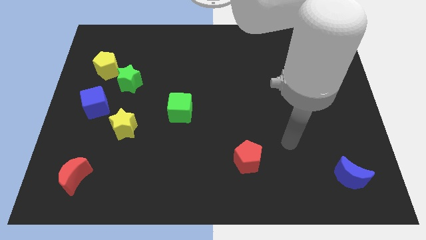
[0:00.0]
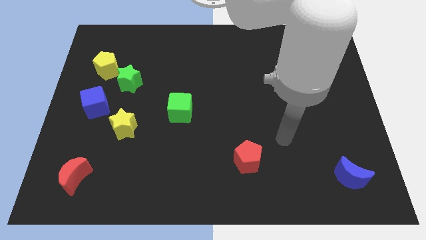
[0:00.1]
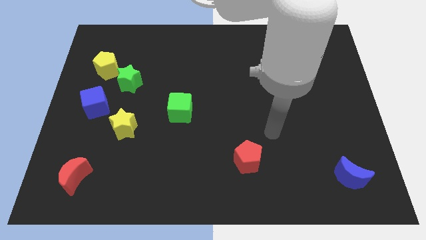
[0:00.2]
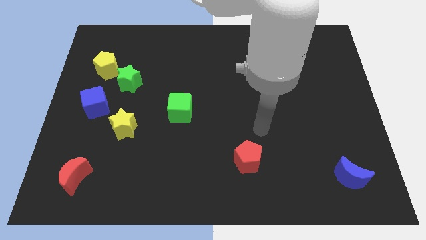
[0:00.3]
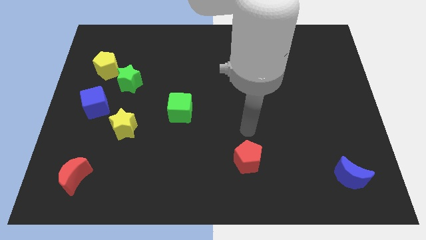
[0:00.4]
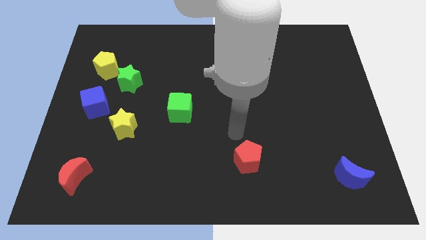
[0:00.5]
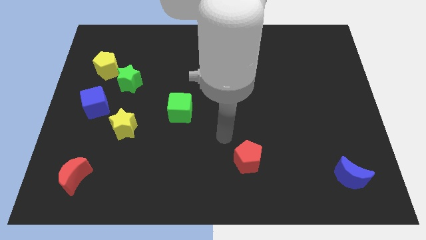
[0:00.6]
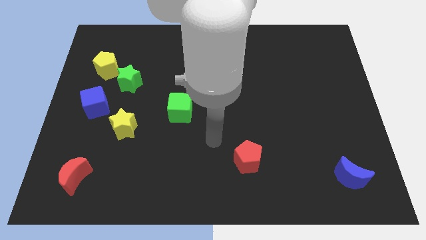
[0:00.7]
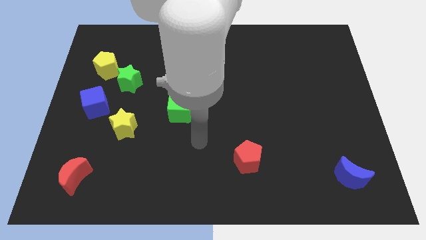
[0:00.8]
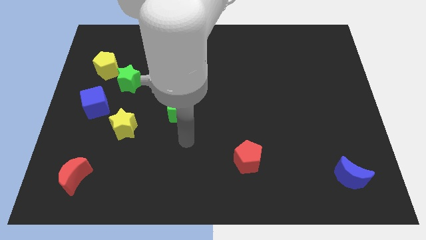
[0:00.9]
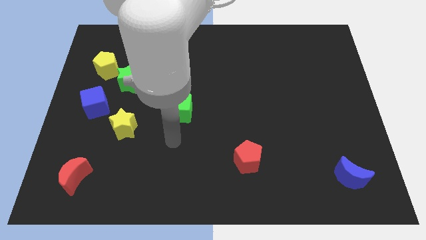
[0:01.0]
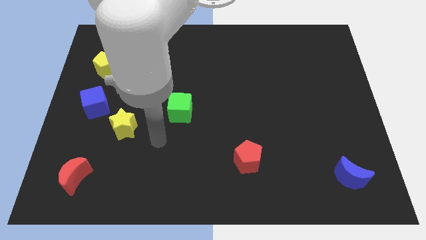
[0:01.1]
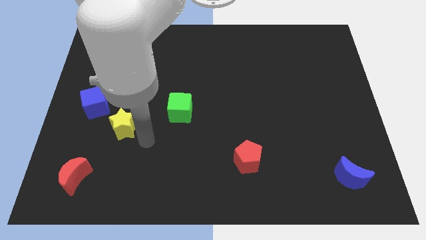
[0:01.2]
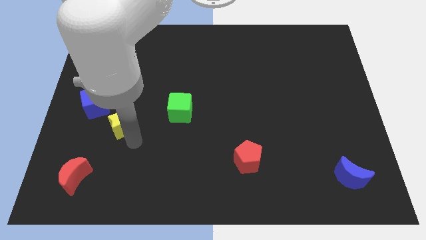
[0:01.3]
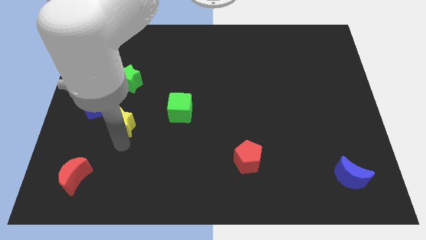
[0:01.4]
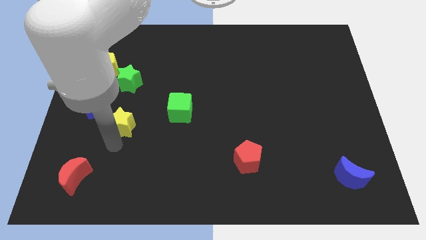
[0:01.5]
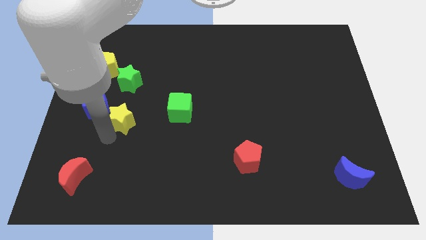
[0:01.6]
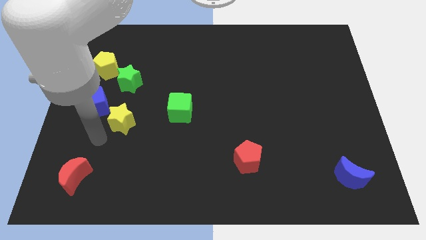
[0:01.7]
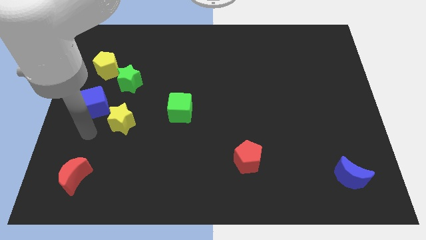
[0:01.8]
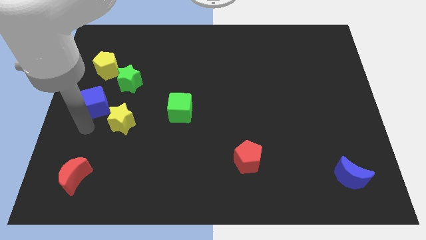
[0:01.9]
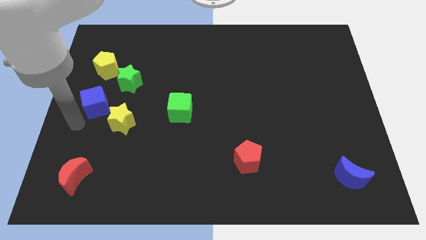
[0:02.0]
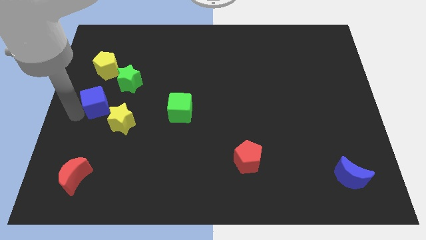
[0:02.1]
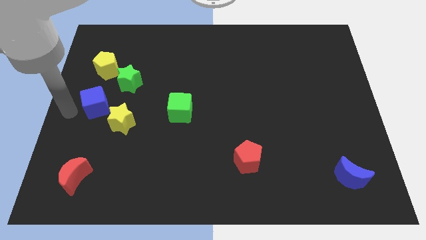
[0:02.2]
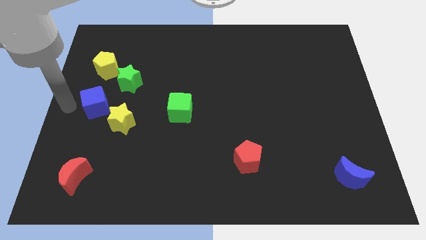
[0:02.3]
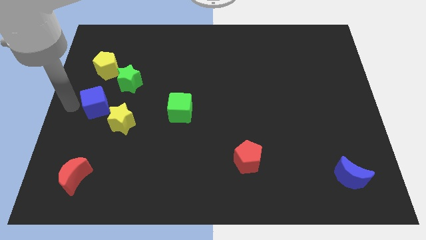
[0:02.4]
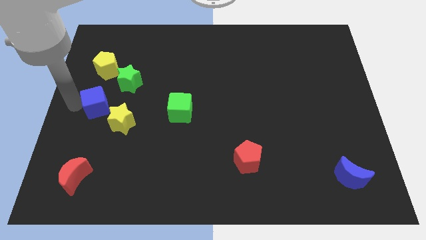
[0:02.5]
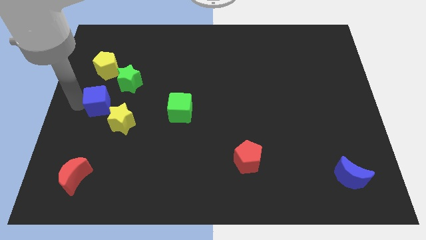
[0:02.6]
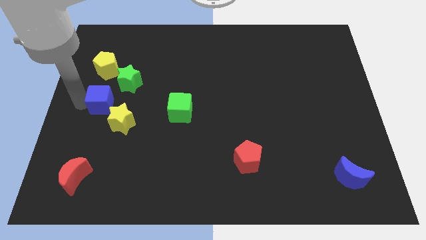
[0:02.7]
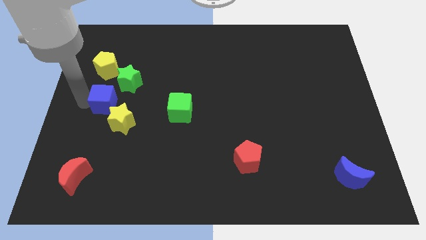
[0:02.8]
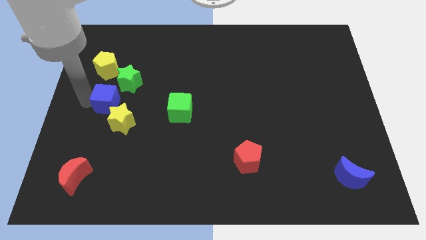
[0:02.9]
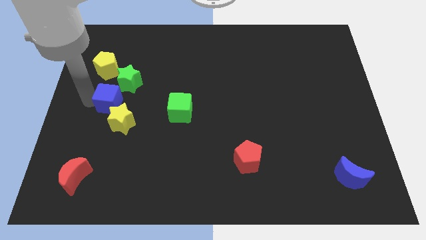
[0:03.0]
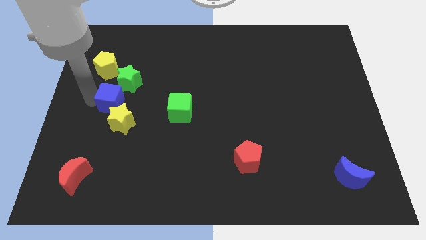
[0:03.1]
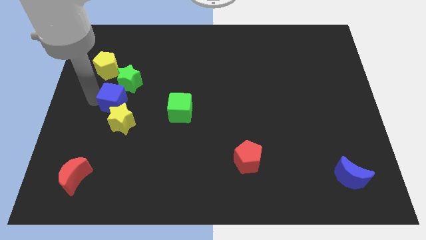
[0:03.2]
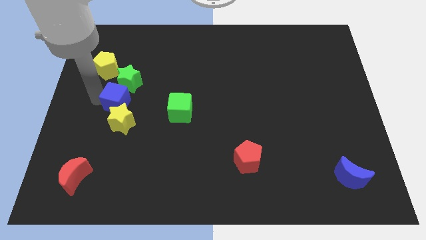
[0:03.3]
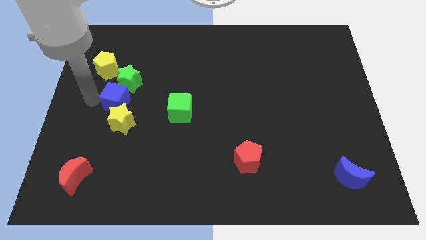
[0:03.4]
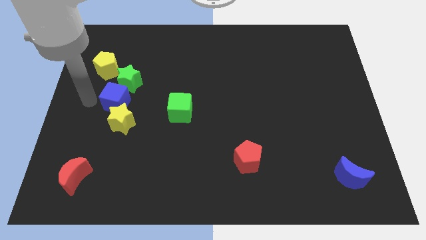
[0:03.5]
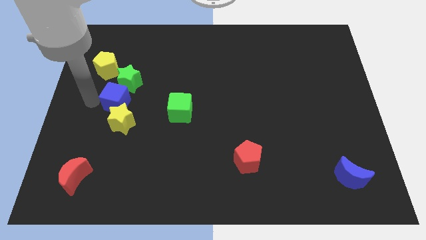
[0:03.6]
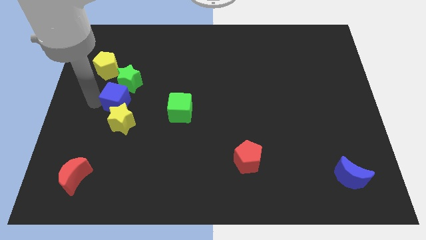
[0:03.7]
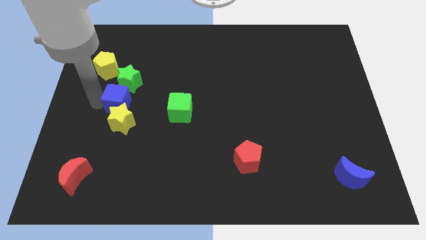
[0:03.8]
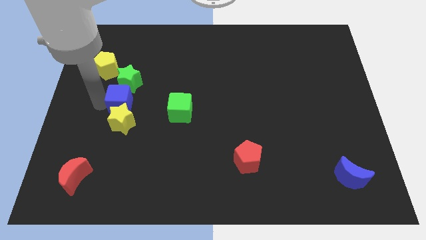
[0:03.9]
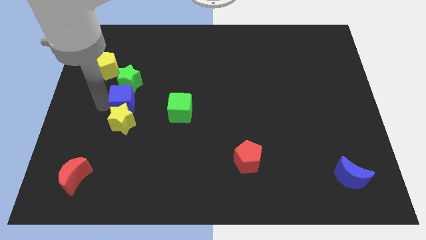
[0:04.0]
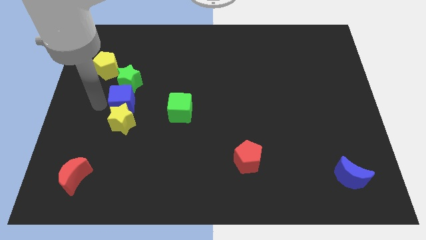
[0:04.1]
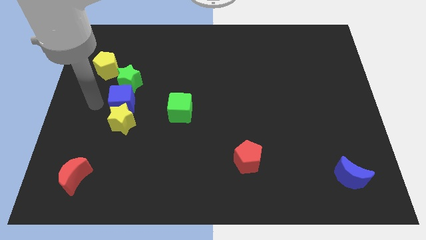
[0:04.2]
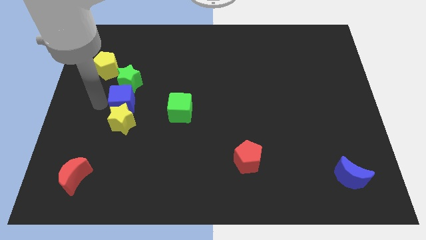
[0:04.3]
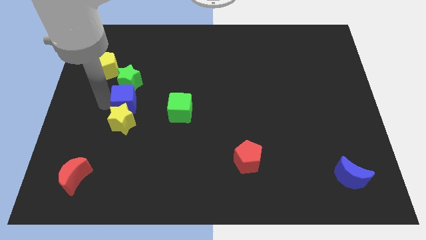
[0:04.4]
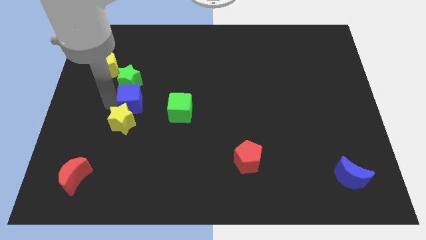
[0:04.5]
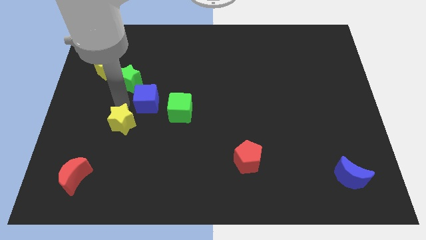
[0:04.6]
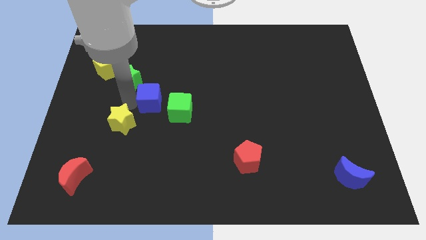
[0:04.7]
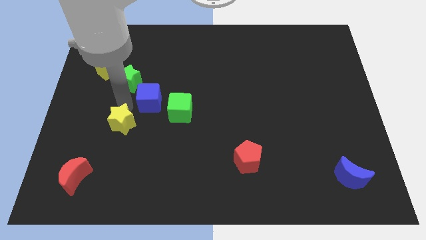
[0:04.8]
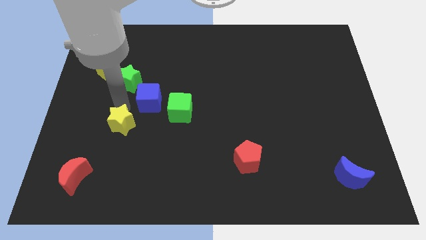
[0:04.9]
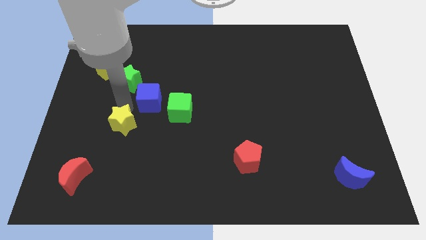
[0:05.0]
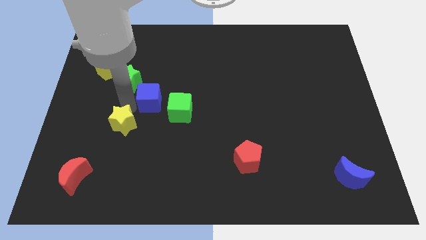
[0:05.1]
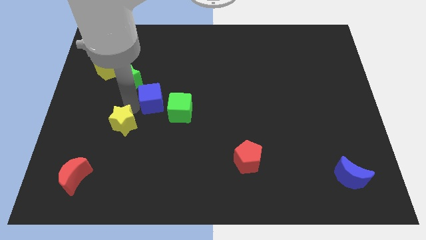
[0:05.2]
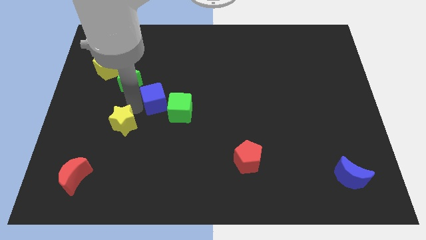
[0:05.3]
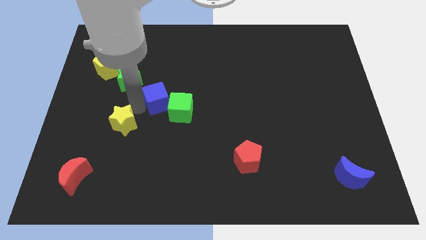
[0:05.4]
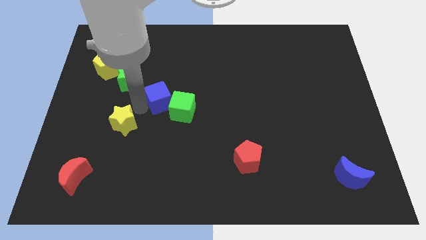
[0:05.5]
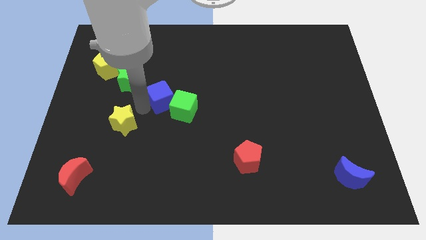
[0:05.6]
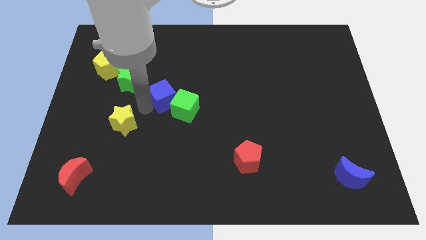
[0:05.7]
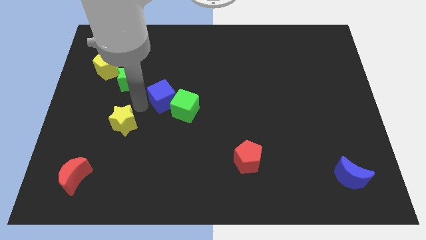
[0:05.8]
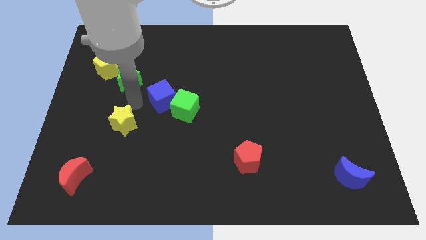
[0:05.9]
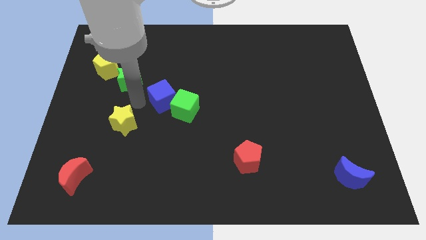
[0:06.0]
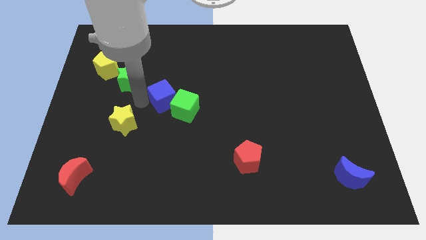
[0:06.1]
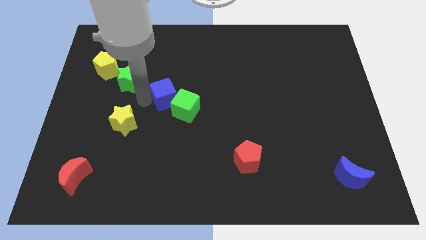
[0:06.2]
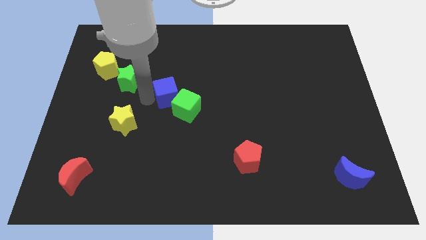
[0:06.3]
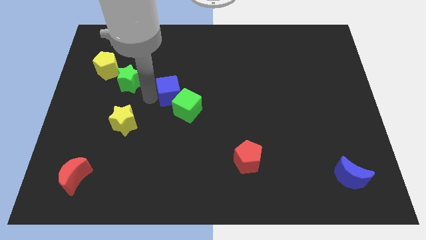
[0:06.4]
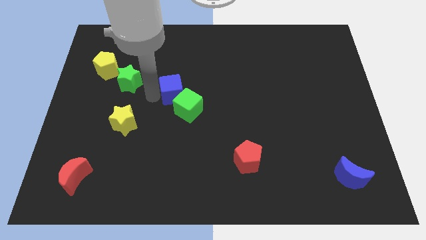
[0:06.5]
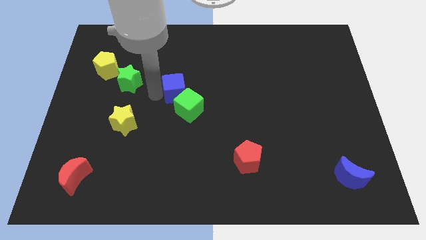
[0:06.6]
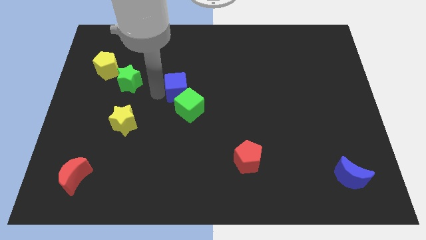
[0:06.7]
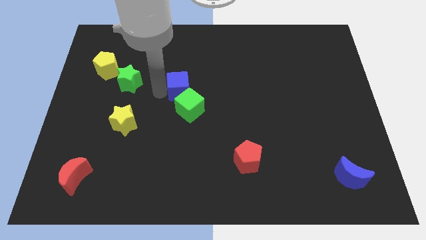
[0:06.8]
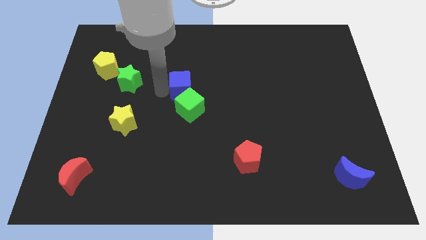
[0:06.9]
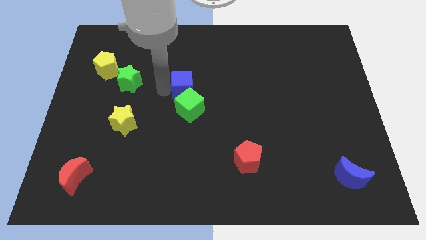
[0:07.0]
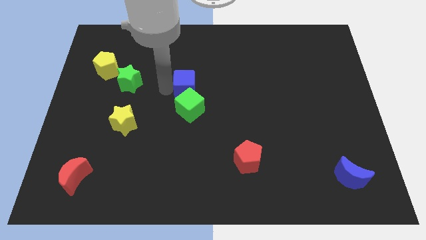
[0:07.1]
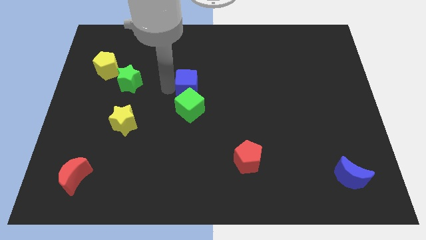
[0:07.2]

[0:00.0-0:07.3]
slide the blue cube to the right

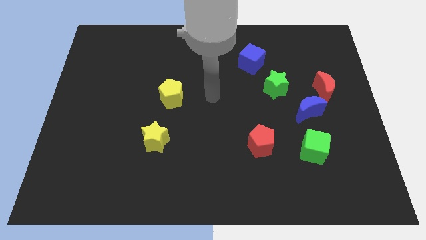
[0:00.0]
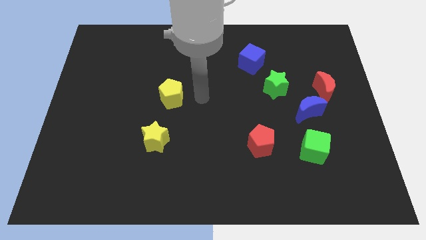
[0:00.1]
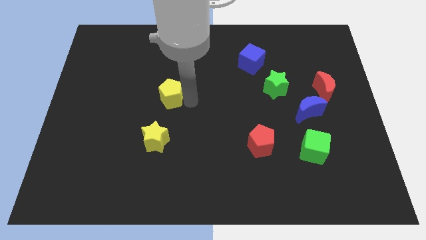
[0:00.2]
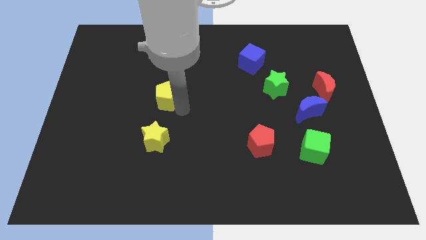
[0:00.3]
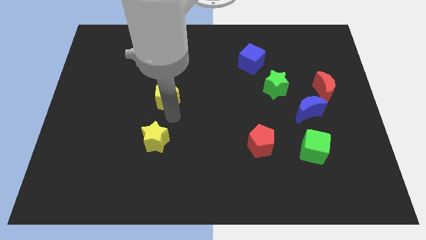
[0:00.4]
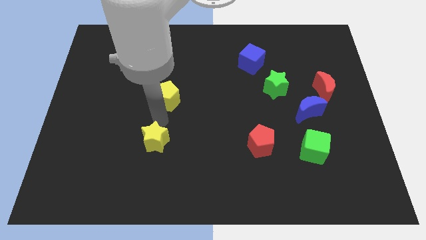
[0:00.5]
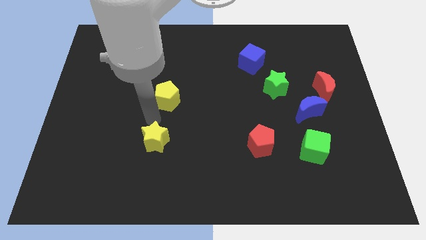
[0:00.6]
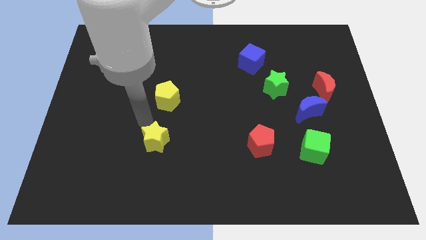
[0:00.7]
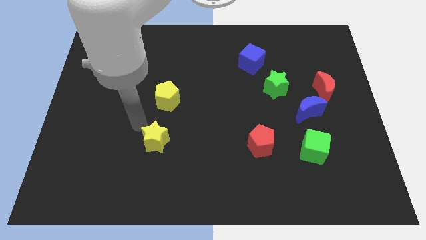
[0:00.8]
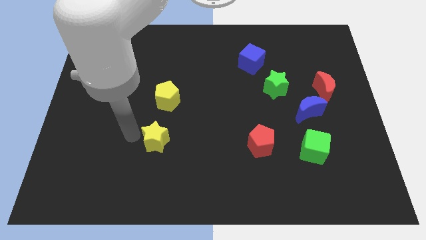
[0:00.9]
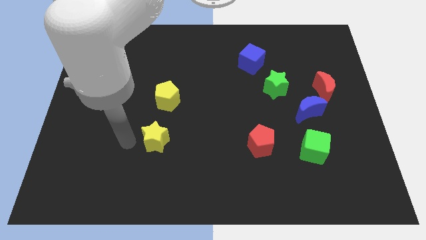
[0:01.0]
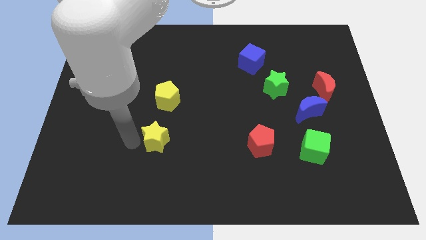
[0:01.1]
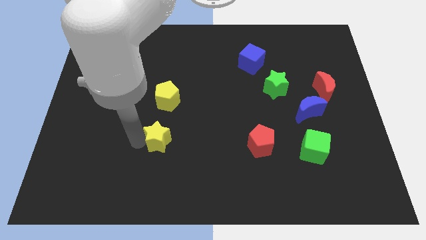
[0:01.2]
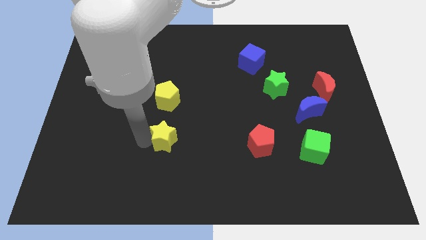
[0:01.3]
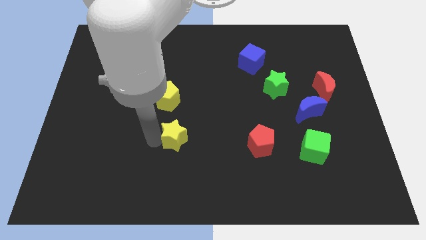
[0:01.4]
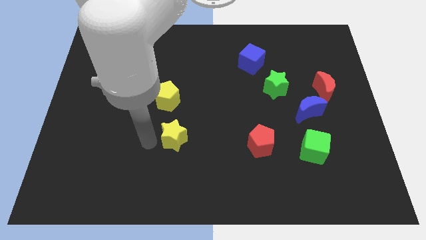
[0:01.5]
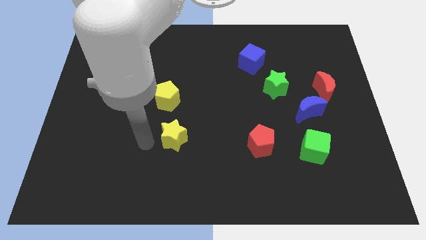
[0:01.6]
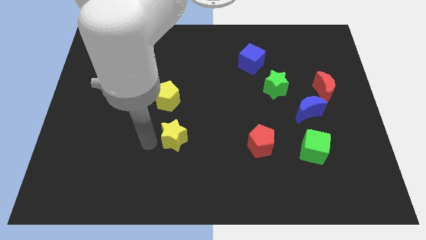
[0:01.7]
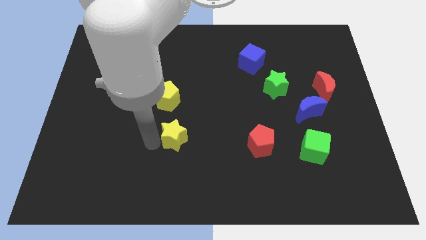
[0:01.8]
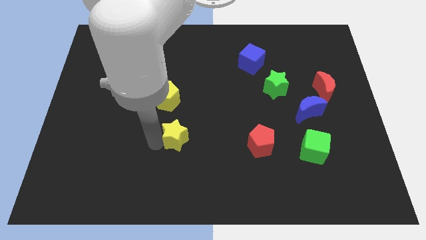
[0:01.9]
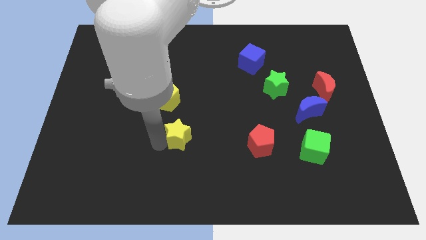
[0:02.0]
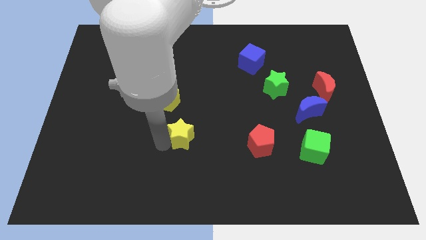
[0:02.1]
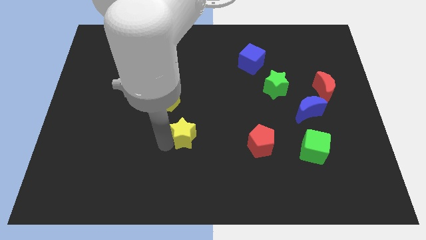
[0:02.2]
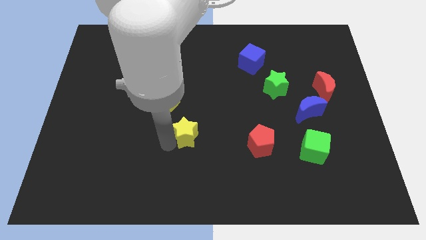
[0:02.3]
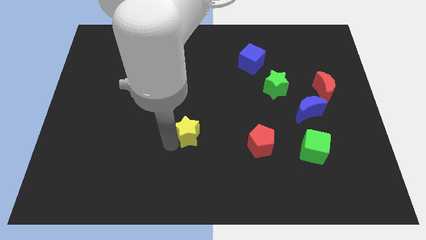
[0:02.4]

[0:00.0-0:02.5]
slide the yellow star to the right a bit
